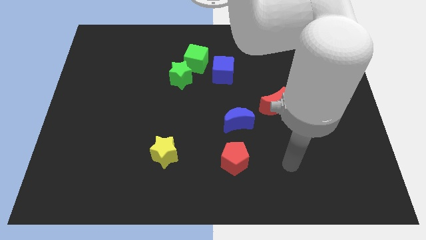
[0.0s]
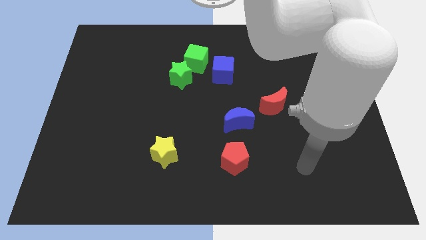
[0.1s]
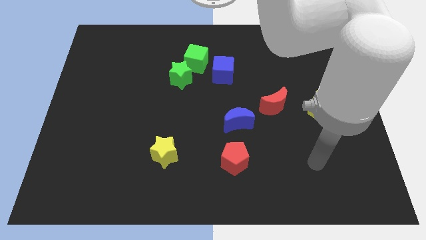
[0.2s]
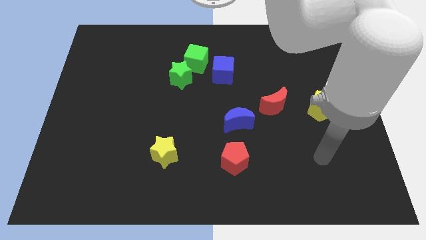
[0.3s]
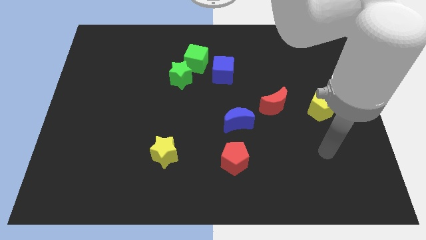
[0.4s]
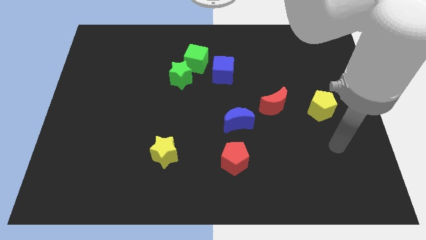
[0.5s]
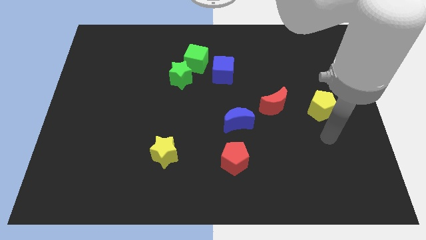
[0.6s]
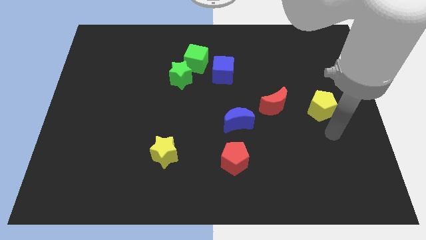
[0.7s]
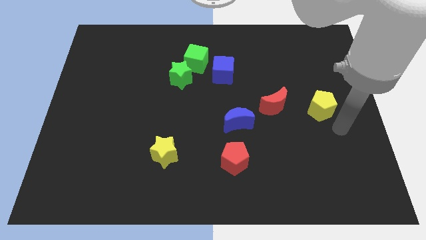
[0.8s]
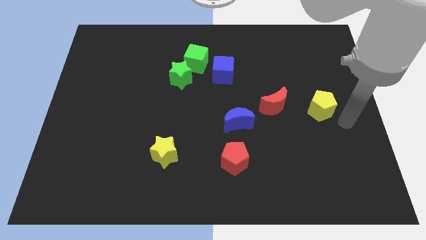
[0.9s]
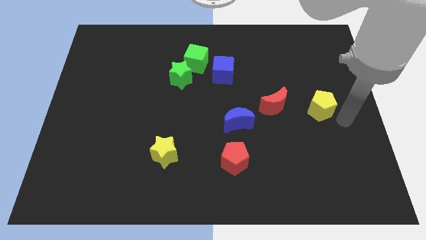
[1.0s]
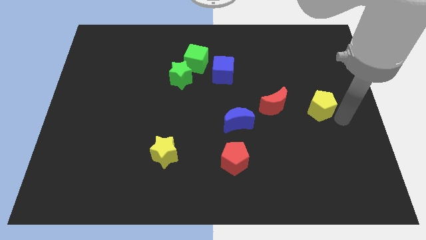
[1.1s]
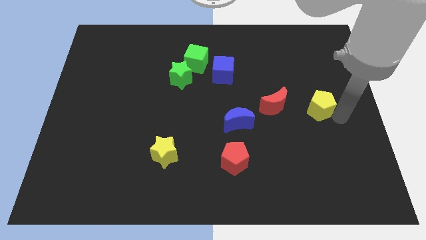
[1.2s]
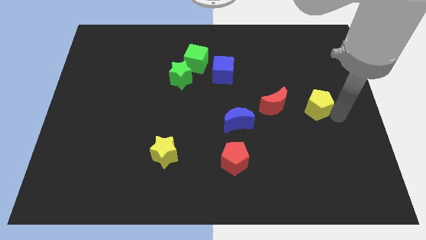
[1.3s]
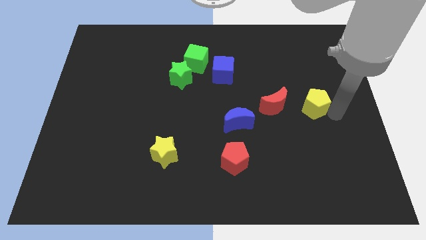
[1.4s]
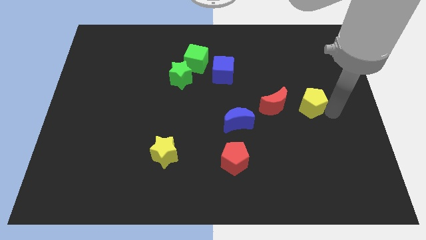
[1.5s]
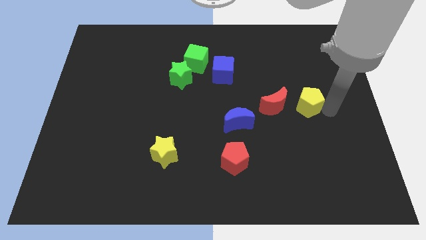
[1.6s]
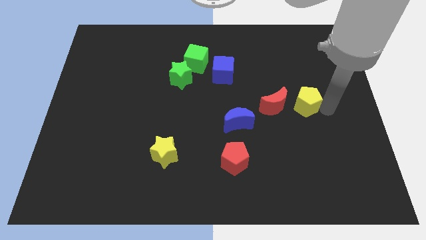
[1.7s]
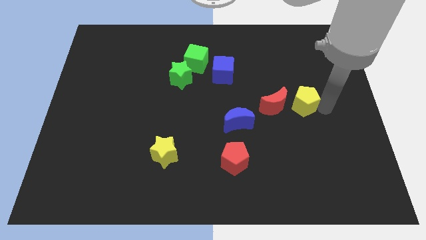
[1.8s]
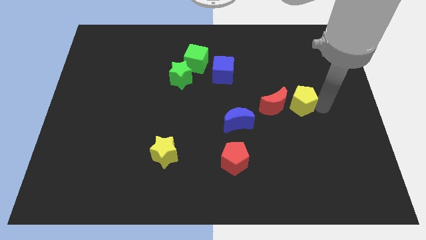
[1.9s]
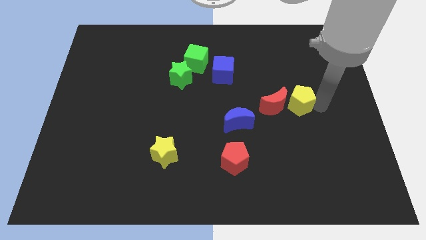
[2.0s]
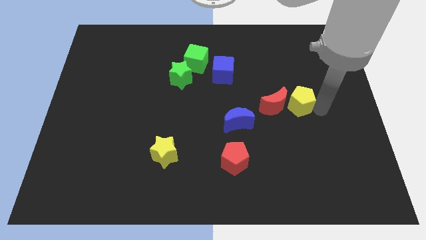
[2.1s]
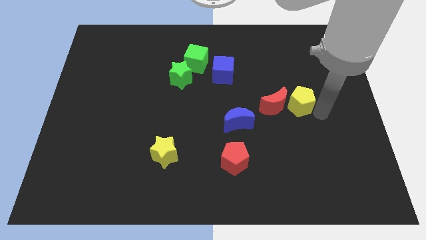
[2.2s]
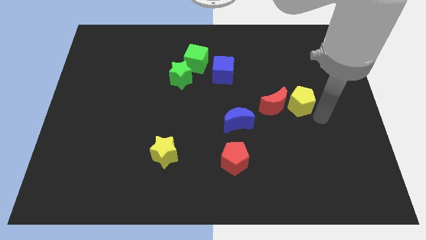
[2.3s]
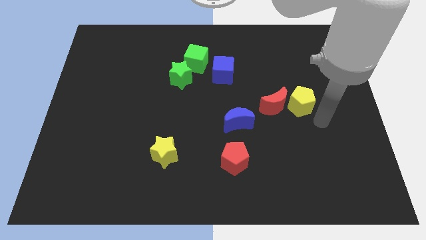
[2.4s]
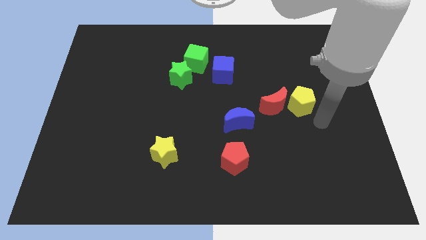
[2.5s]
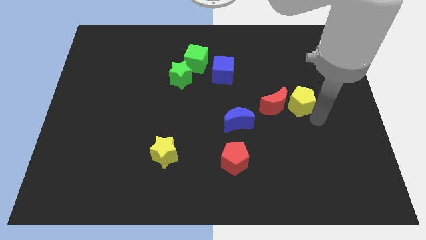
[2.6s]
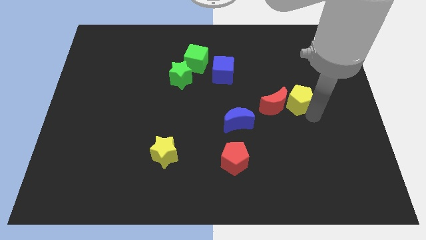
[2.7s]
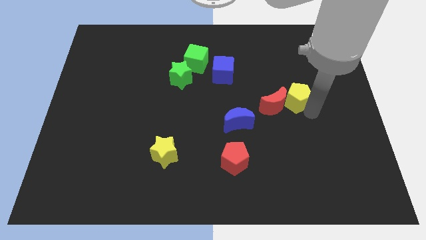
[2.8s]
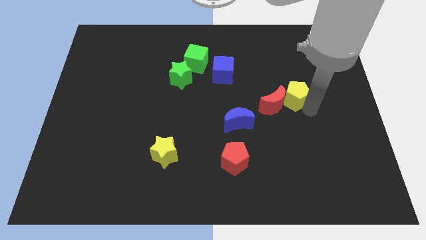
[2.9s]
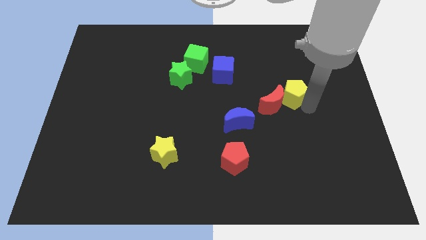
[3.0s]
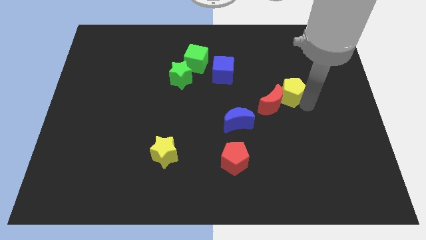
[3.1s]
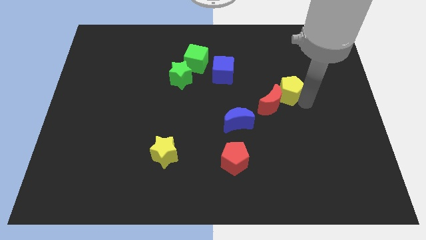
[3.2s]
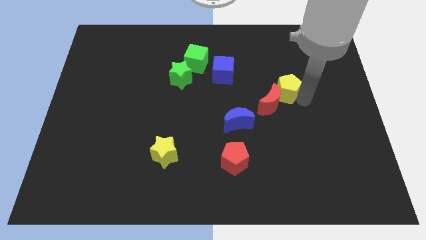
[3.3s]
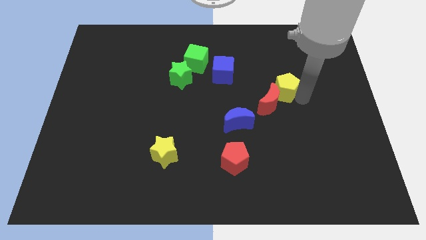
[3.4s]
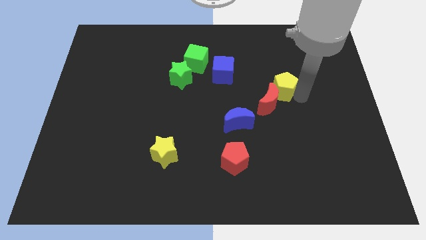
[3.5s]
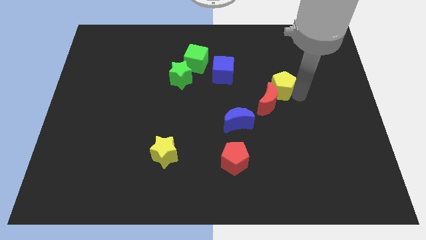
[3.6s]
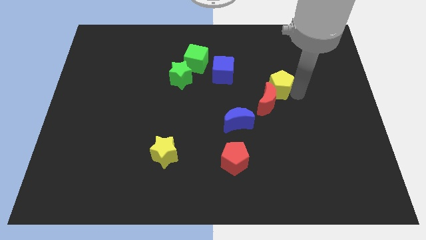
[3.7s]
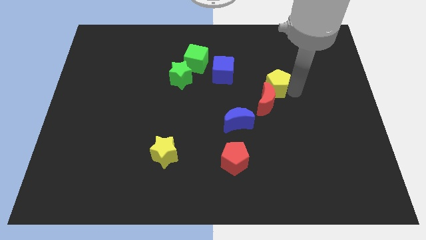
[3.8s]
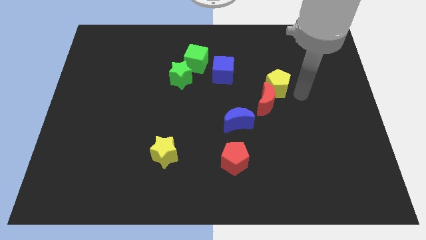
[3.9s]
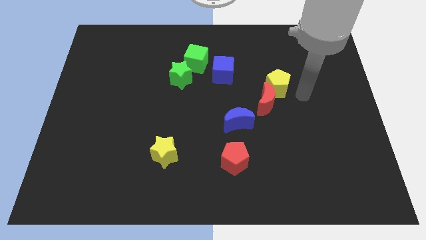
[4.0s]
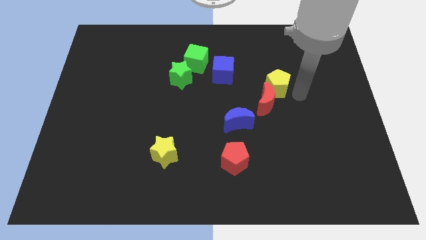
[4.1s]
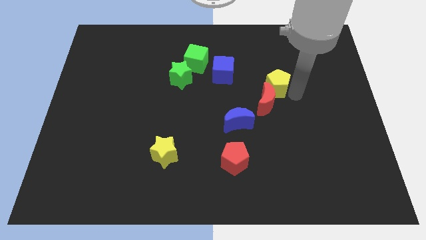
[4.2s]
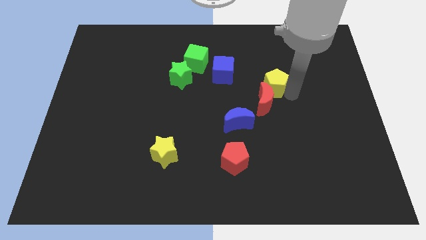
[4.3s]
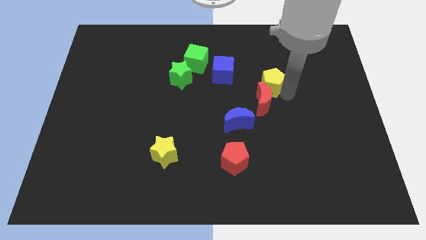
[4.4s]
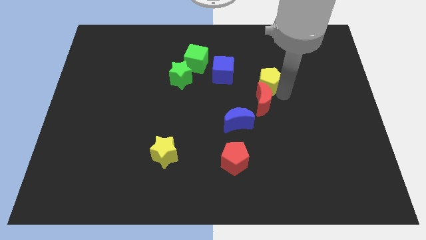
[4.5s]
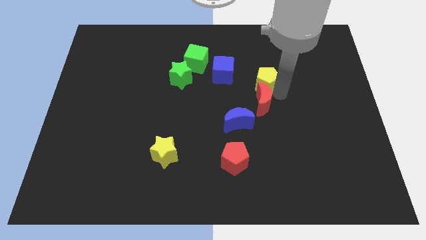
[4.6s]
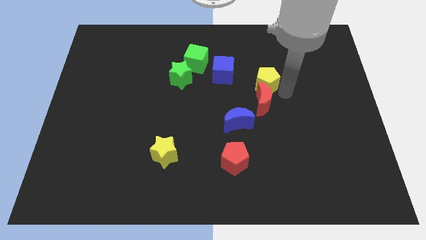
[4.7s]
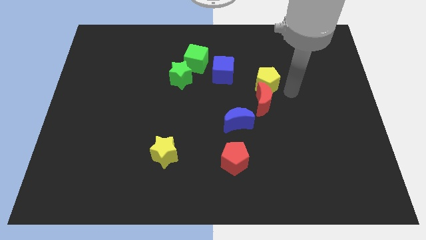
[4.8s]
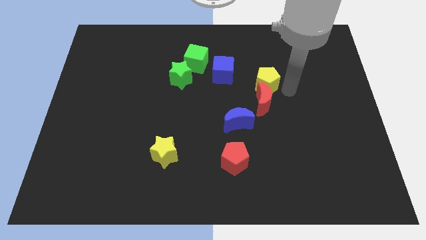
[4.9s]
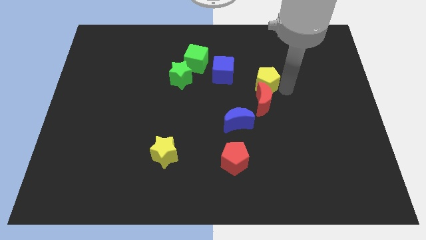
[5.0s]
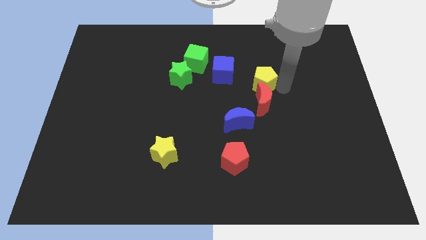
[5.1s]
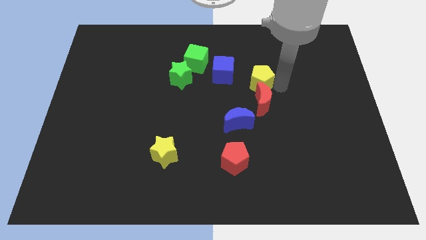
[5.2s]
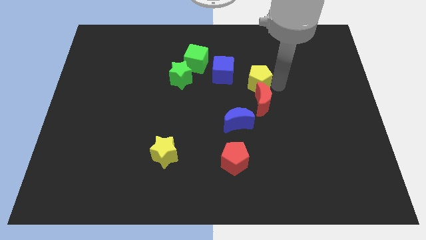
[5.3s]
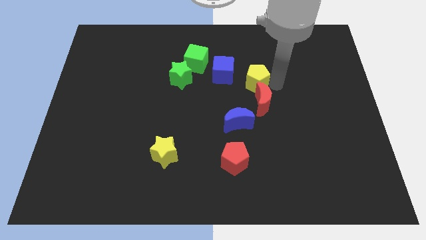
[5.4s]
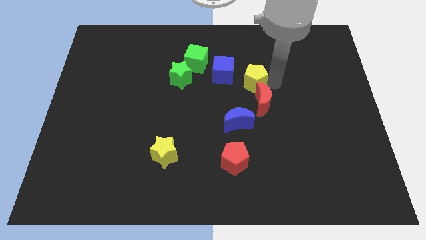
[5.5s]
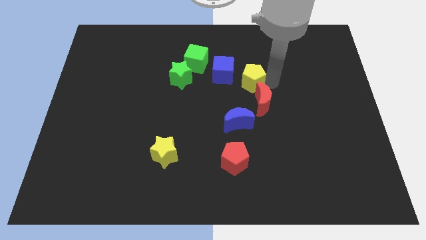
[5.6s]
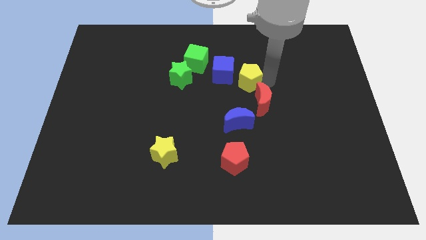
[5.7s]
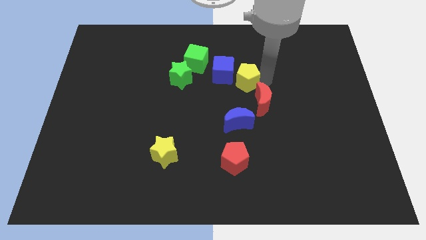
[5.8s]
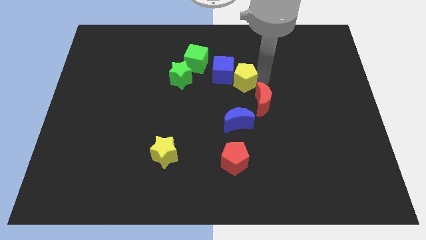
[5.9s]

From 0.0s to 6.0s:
put the yellow pentagon to the blue cube

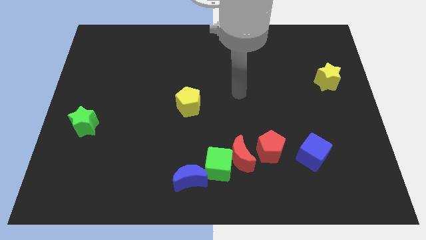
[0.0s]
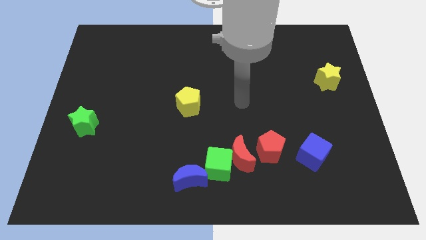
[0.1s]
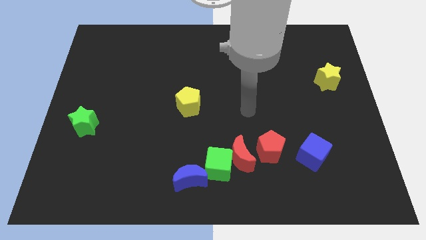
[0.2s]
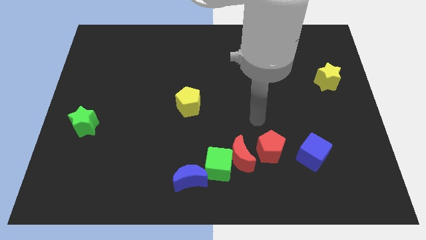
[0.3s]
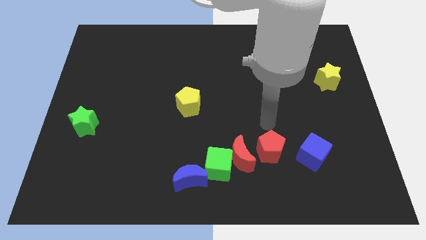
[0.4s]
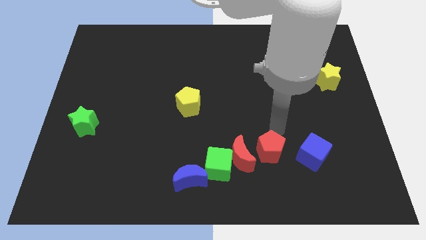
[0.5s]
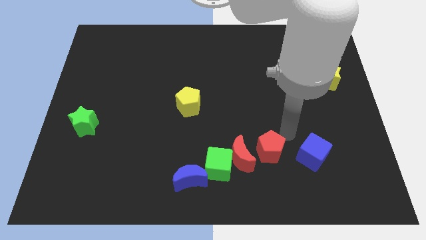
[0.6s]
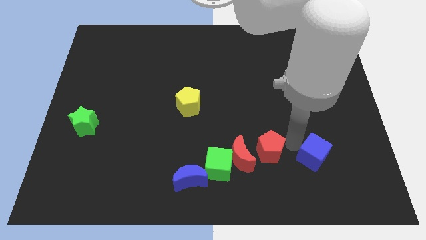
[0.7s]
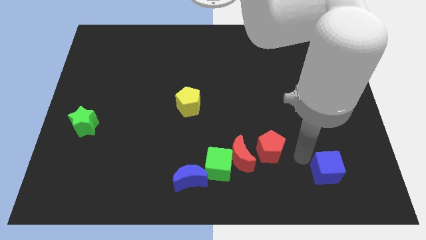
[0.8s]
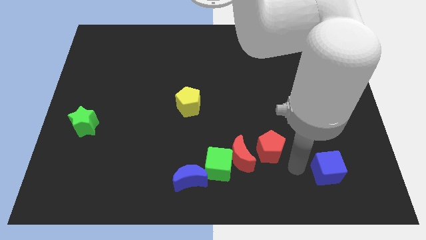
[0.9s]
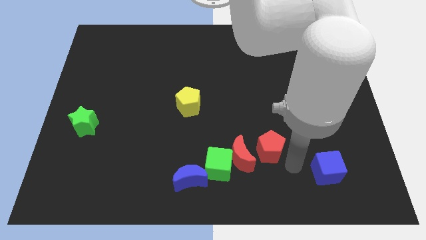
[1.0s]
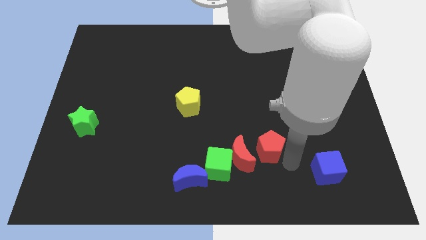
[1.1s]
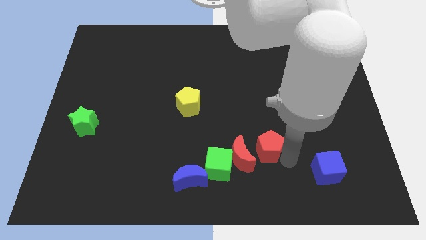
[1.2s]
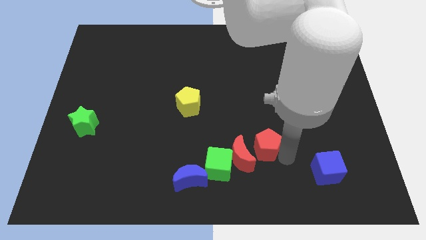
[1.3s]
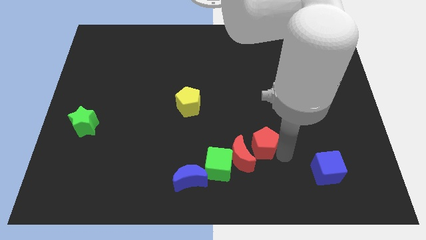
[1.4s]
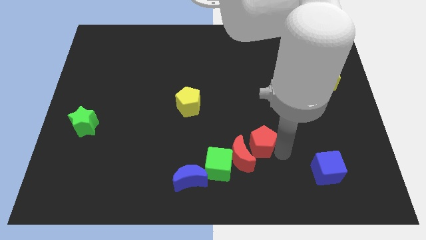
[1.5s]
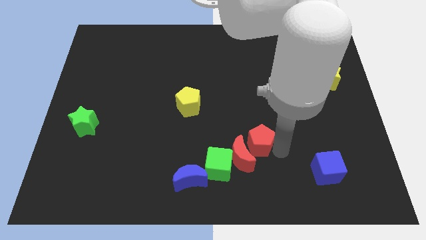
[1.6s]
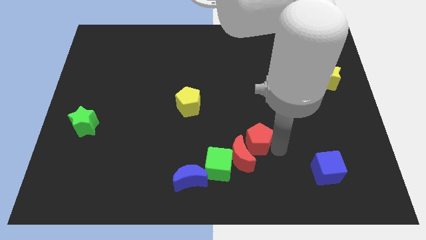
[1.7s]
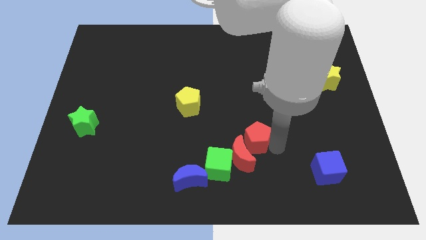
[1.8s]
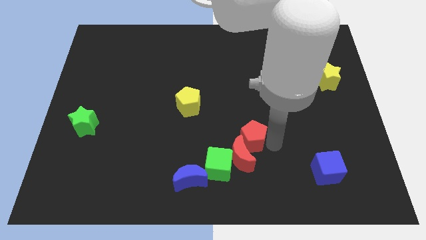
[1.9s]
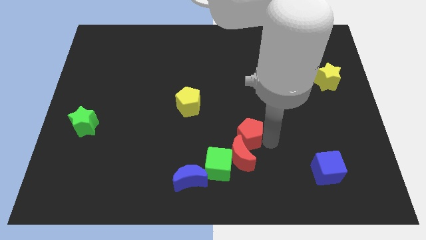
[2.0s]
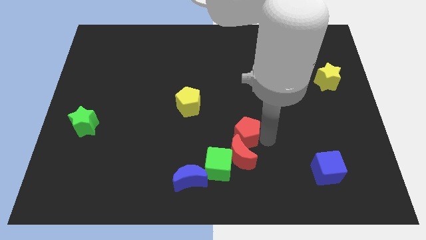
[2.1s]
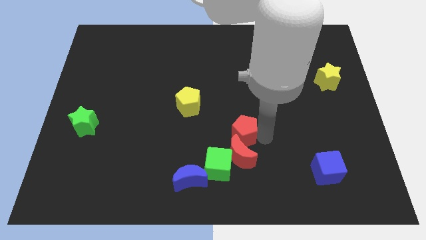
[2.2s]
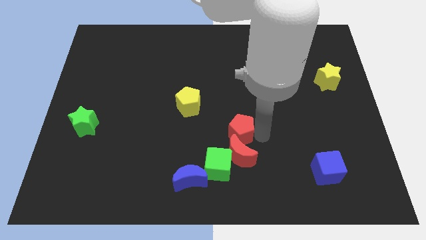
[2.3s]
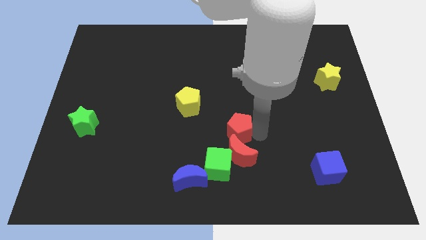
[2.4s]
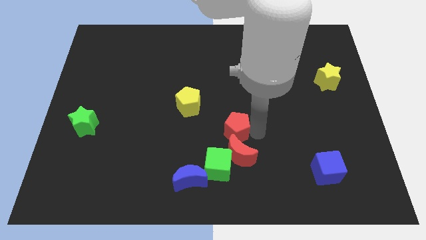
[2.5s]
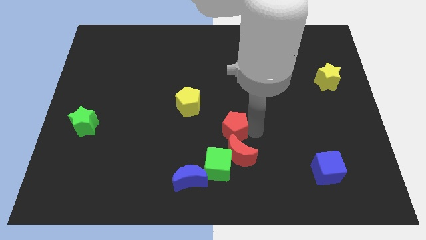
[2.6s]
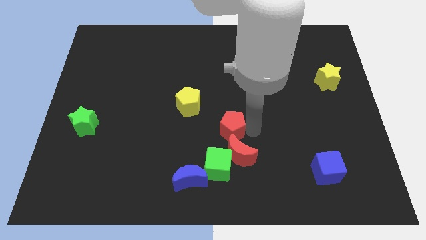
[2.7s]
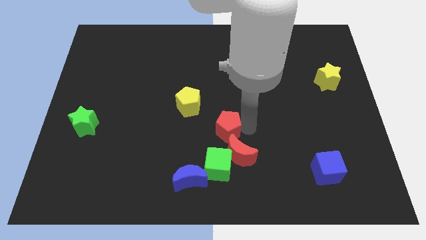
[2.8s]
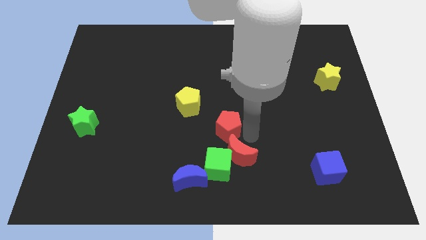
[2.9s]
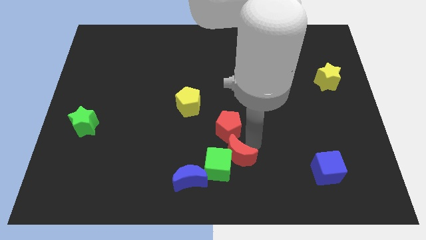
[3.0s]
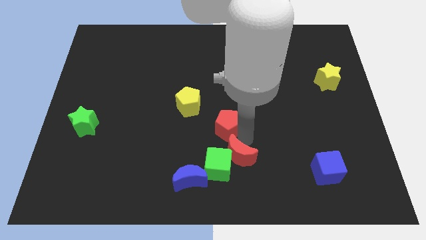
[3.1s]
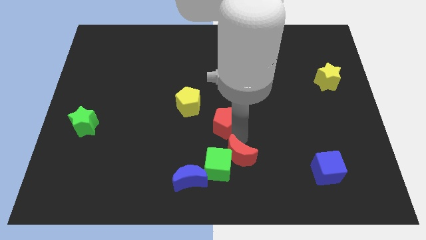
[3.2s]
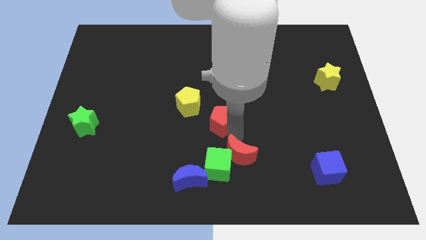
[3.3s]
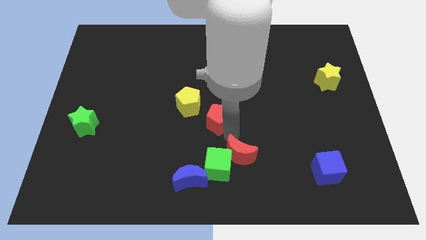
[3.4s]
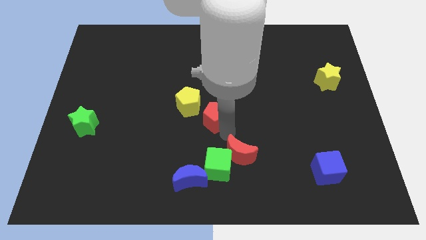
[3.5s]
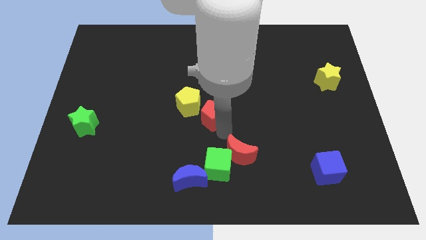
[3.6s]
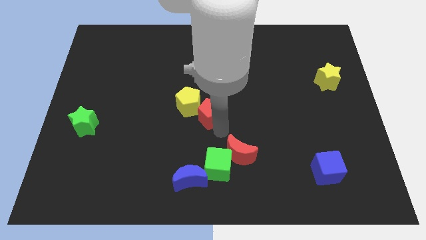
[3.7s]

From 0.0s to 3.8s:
move the red pentagon towards the yellow pentagon
